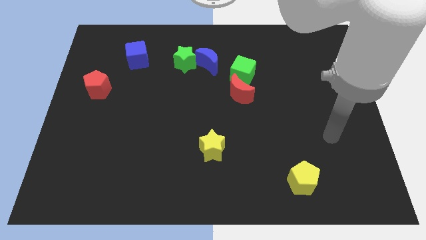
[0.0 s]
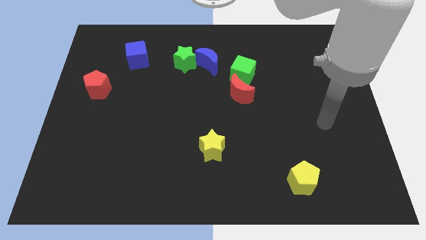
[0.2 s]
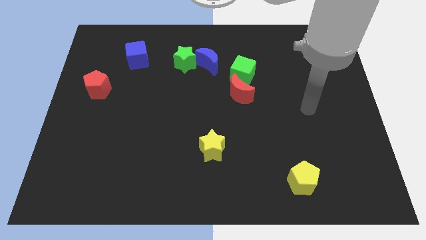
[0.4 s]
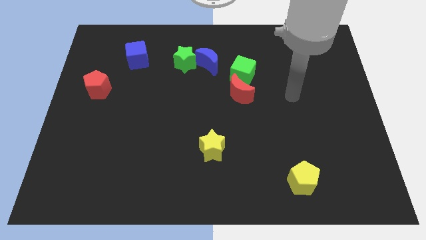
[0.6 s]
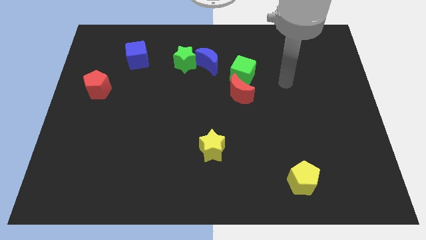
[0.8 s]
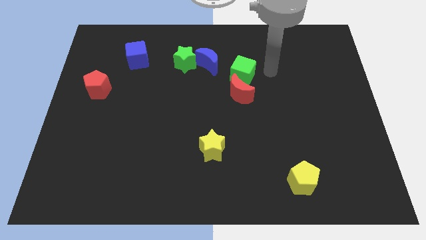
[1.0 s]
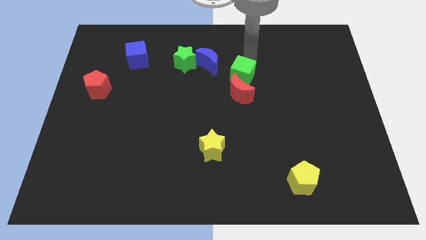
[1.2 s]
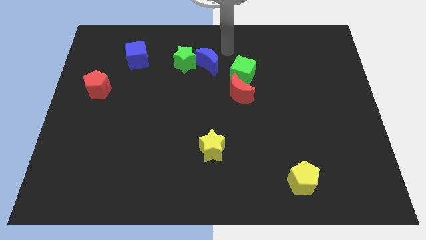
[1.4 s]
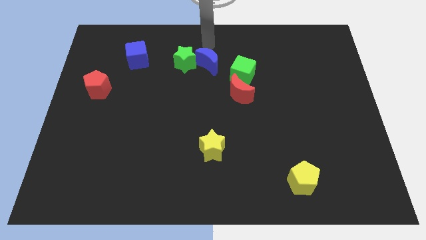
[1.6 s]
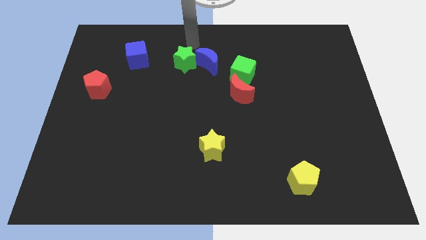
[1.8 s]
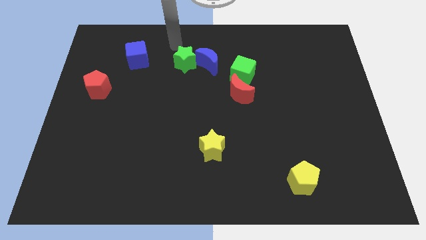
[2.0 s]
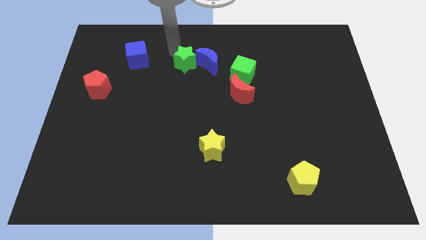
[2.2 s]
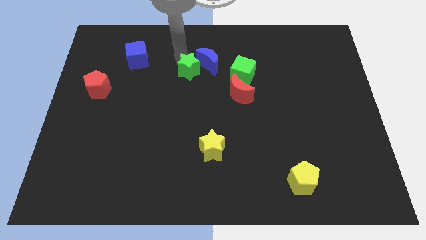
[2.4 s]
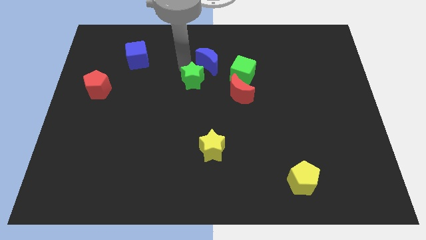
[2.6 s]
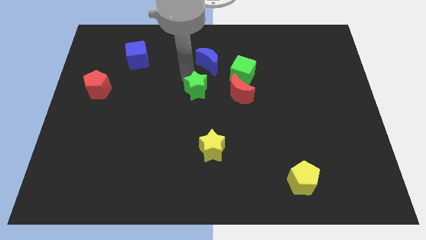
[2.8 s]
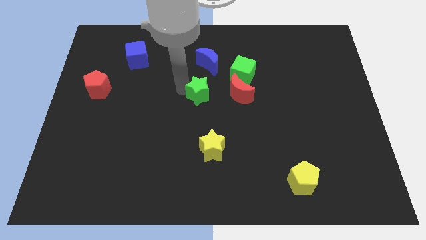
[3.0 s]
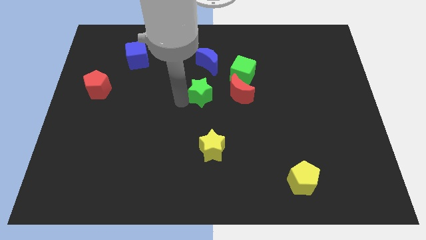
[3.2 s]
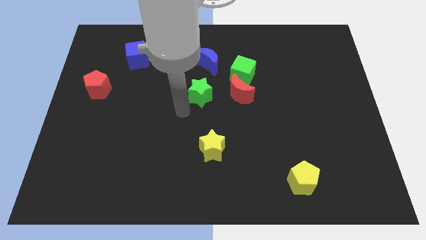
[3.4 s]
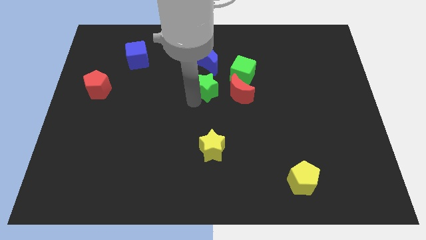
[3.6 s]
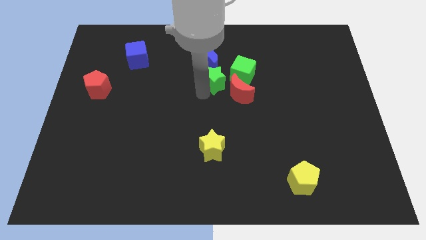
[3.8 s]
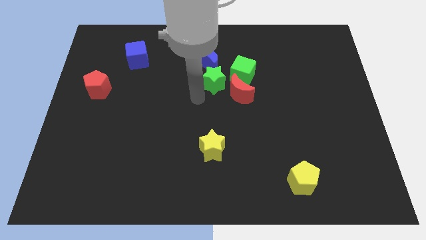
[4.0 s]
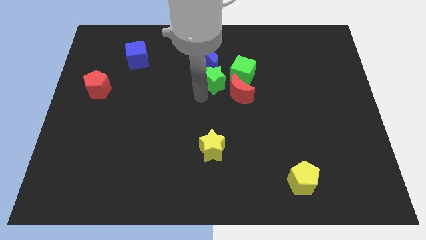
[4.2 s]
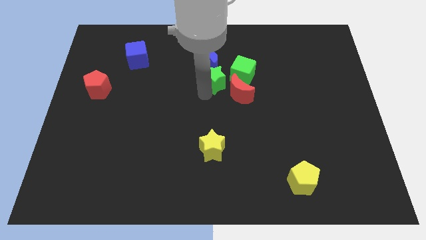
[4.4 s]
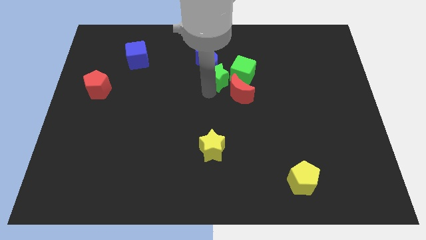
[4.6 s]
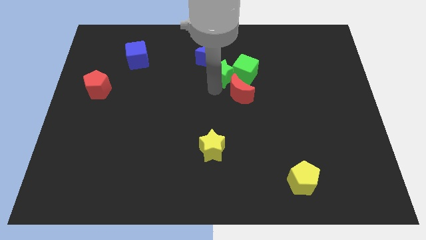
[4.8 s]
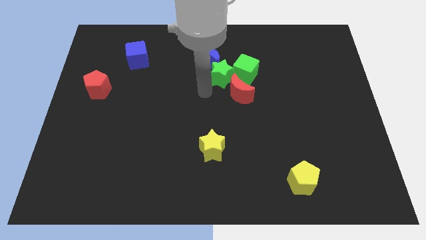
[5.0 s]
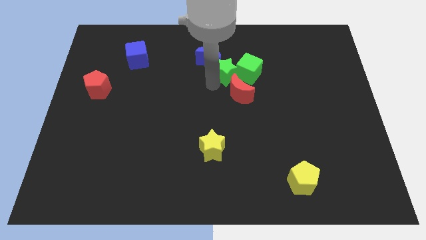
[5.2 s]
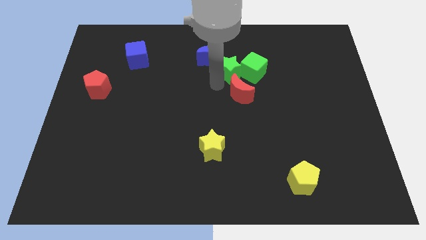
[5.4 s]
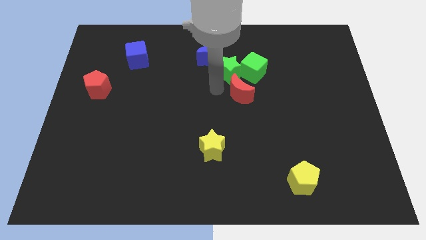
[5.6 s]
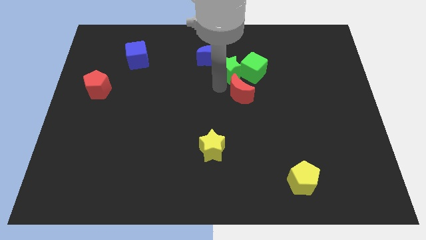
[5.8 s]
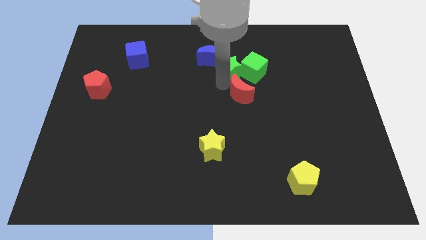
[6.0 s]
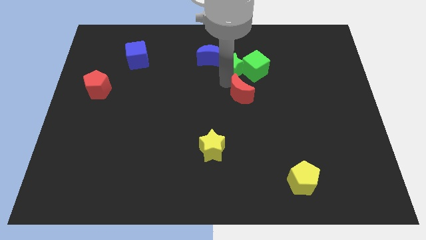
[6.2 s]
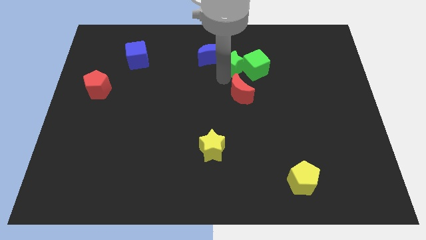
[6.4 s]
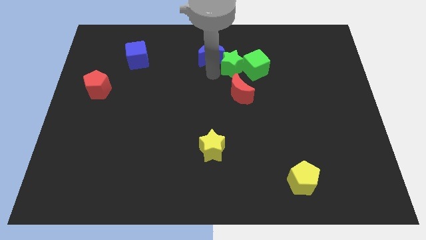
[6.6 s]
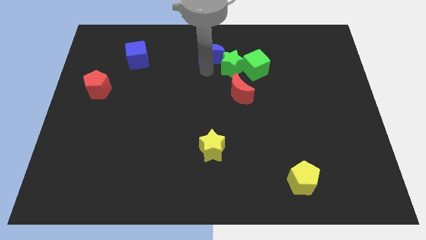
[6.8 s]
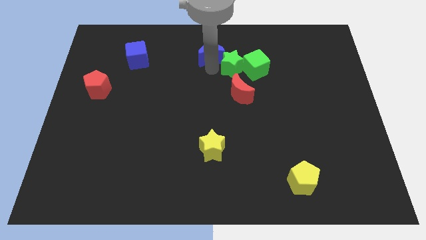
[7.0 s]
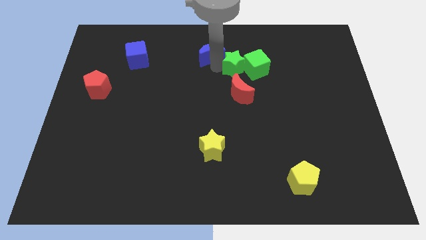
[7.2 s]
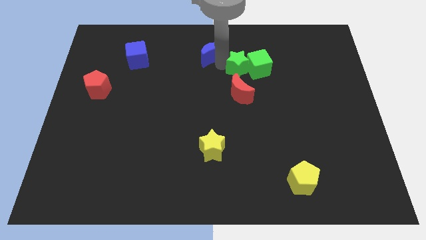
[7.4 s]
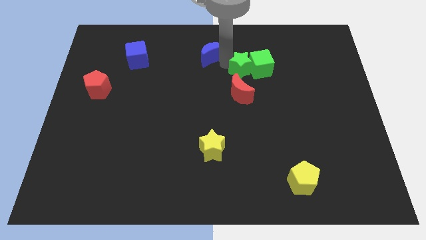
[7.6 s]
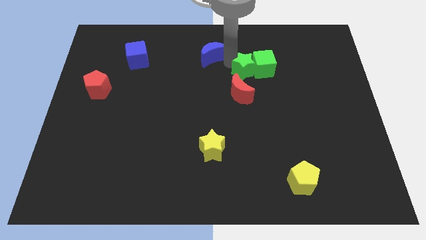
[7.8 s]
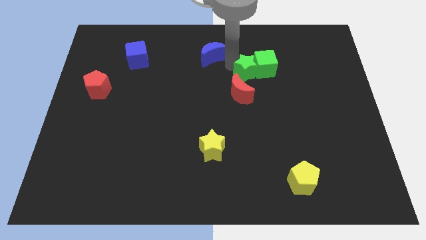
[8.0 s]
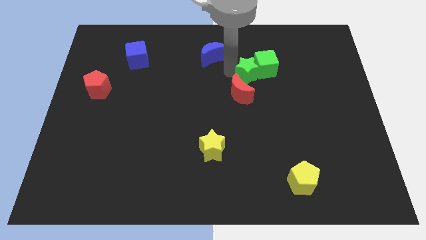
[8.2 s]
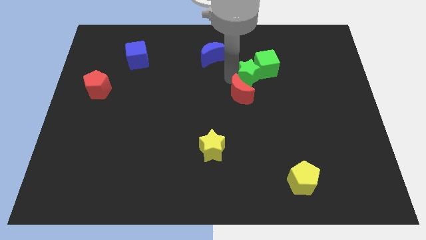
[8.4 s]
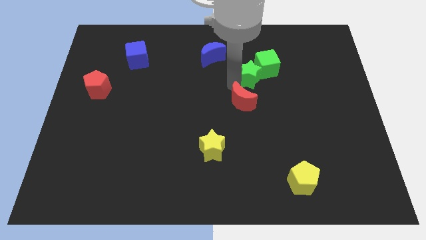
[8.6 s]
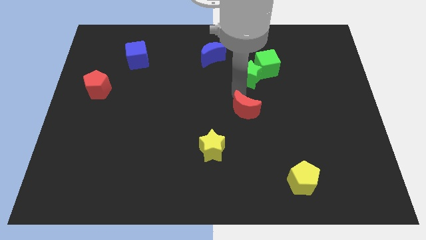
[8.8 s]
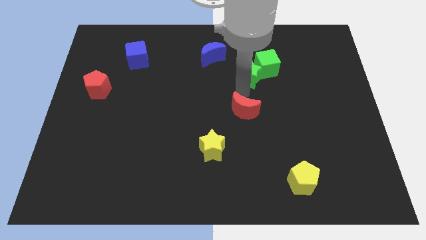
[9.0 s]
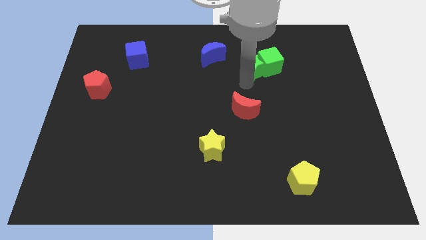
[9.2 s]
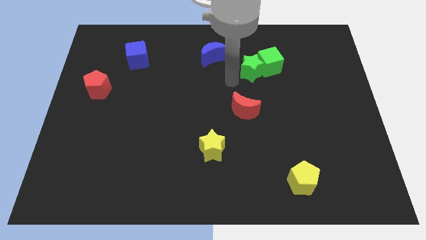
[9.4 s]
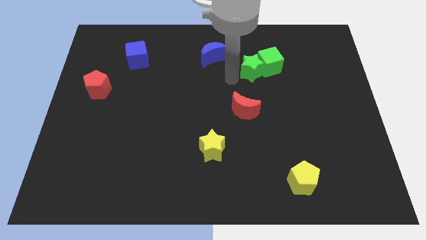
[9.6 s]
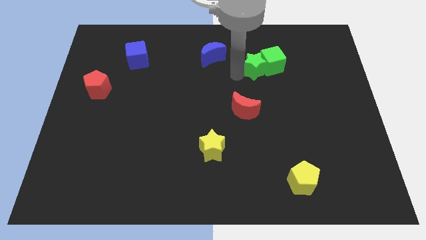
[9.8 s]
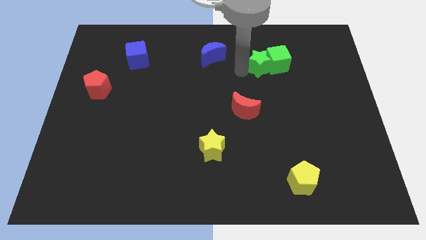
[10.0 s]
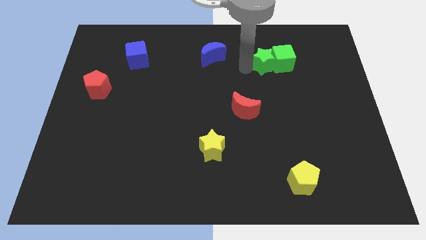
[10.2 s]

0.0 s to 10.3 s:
push the green star right

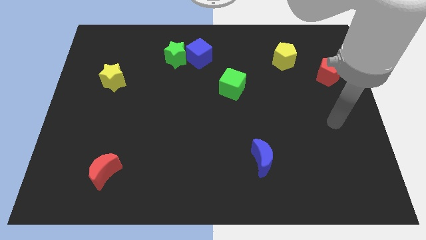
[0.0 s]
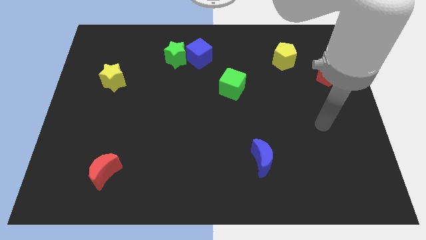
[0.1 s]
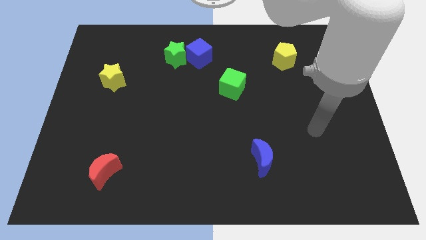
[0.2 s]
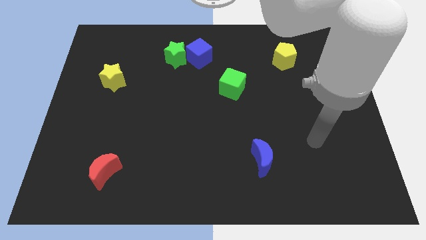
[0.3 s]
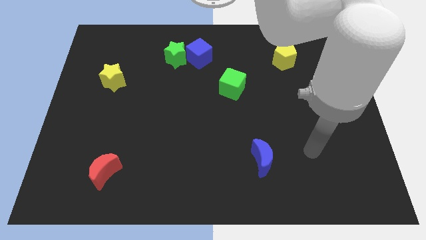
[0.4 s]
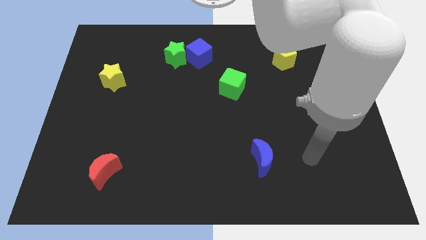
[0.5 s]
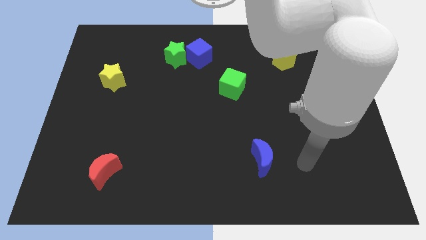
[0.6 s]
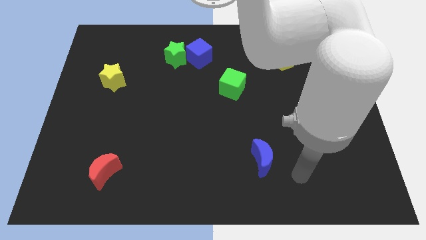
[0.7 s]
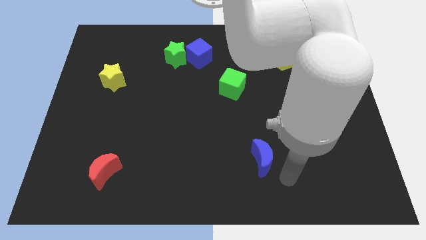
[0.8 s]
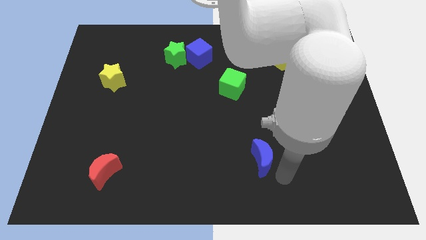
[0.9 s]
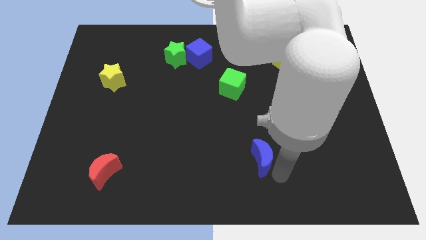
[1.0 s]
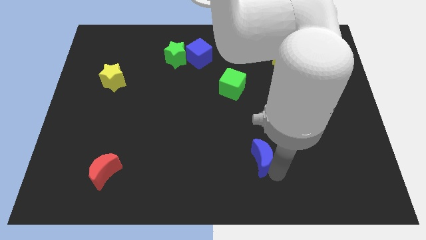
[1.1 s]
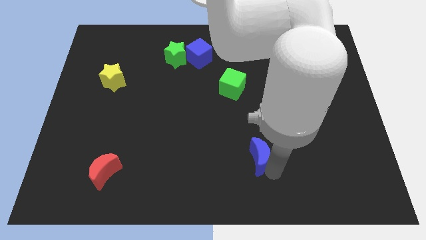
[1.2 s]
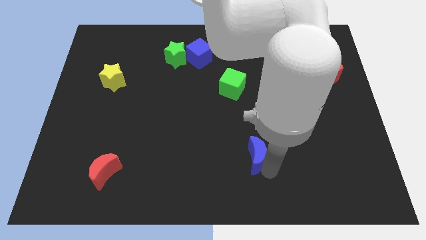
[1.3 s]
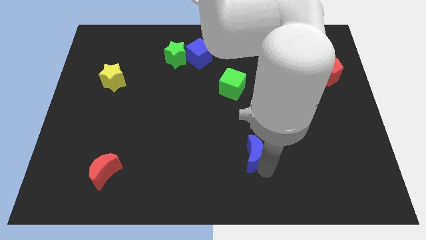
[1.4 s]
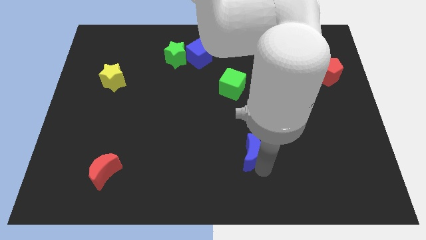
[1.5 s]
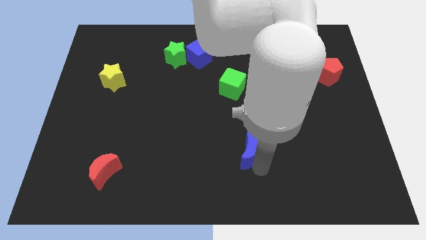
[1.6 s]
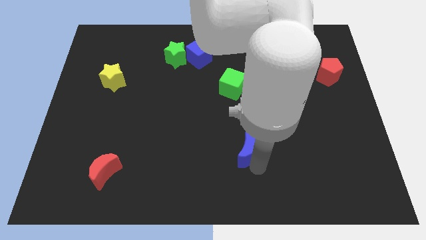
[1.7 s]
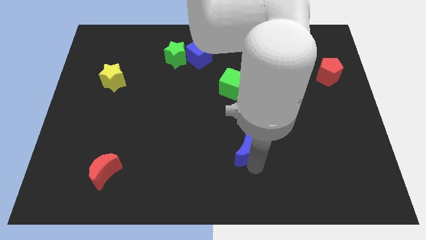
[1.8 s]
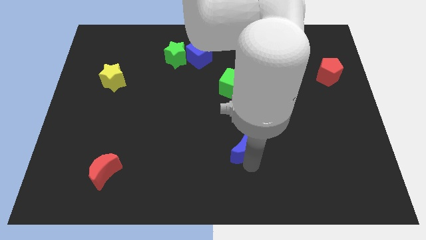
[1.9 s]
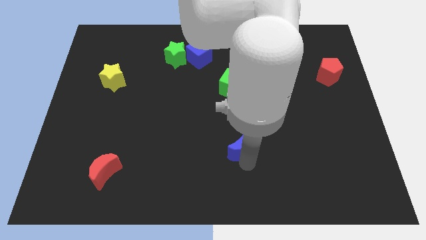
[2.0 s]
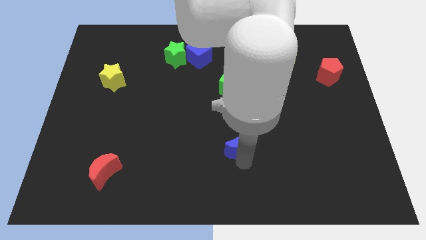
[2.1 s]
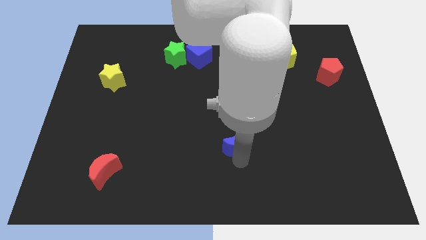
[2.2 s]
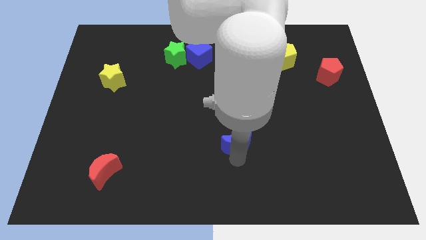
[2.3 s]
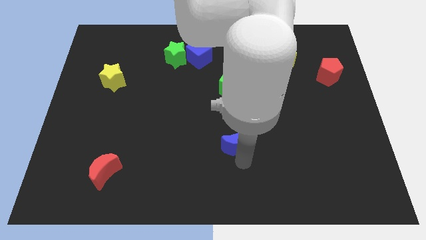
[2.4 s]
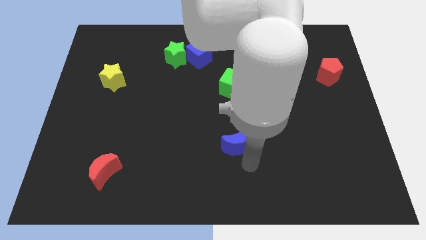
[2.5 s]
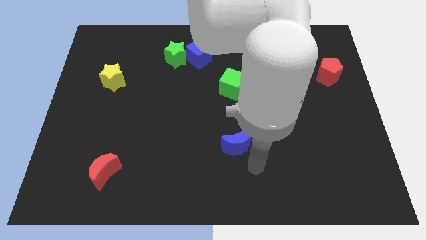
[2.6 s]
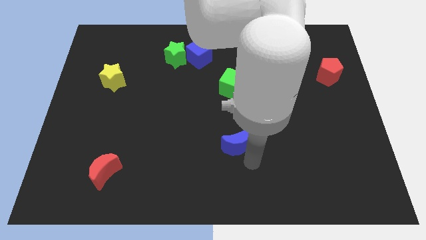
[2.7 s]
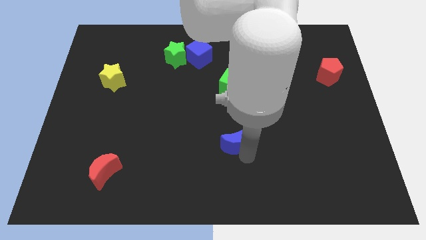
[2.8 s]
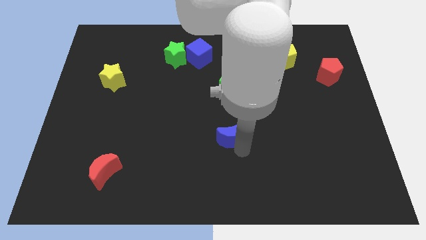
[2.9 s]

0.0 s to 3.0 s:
push the blue moon upwards and then to the left somewhat
